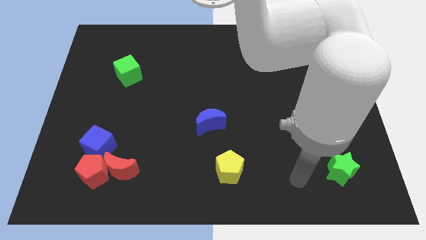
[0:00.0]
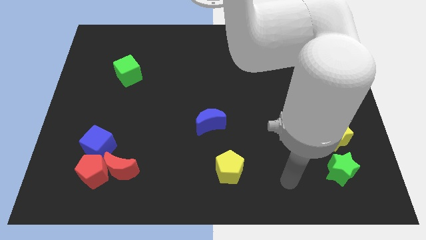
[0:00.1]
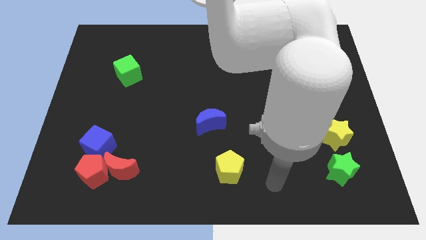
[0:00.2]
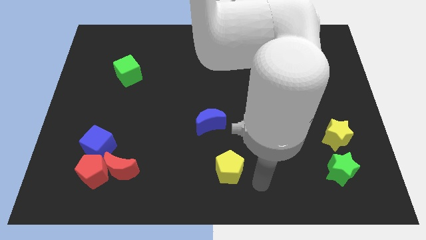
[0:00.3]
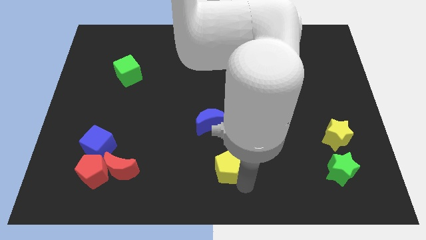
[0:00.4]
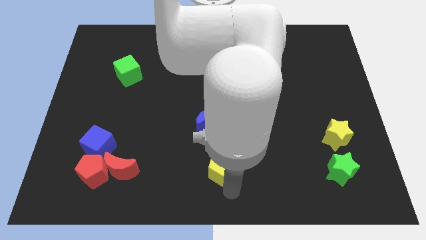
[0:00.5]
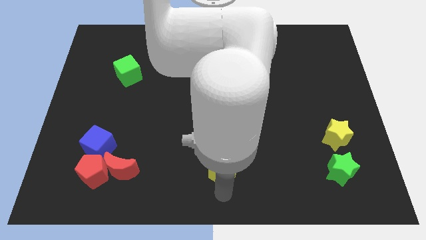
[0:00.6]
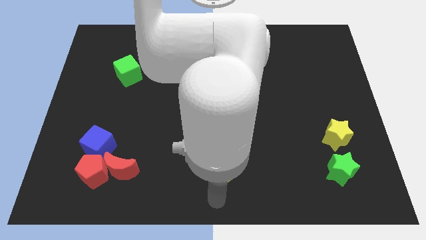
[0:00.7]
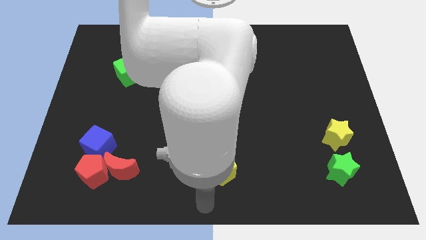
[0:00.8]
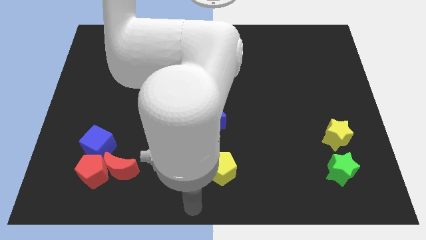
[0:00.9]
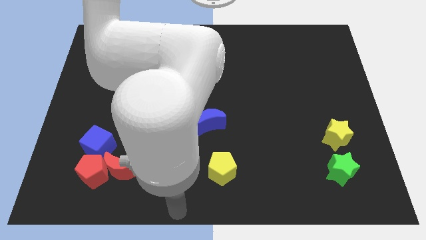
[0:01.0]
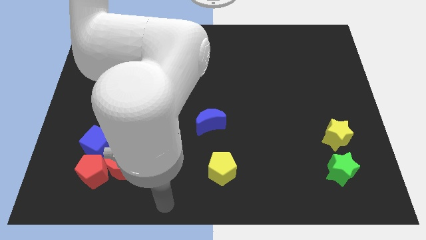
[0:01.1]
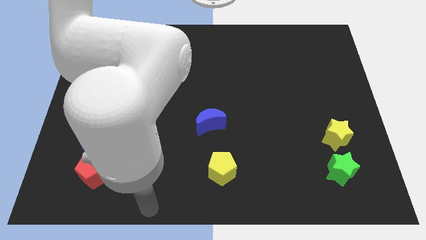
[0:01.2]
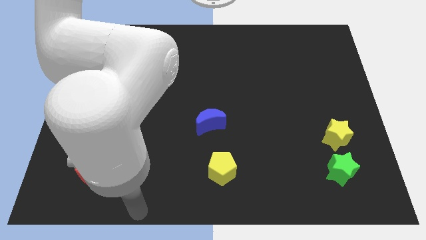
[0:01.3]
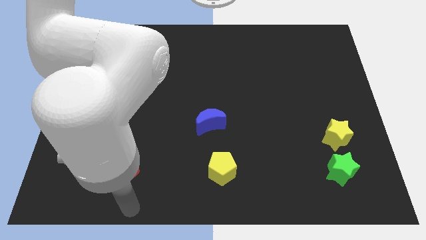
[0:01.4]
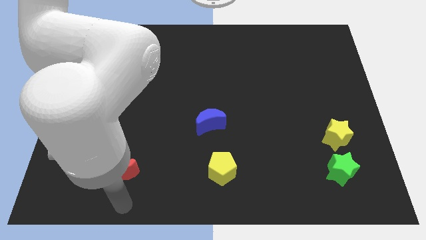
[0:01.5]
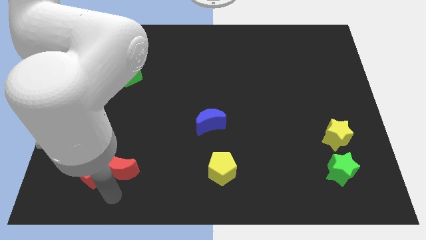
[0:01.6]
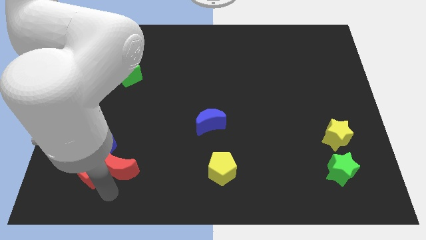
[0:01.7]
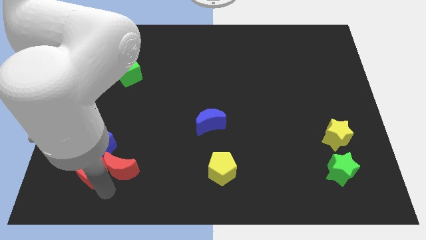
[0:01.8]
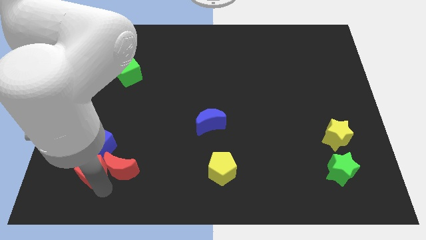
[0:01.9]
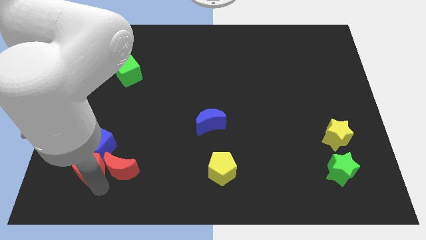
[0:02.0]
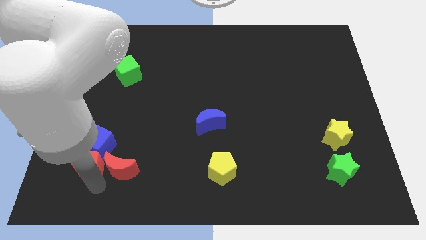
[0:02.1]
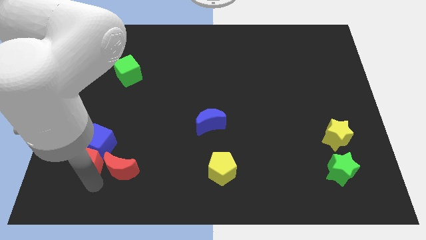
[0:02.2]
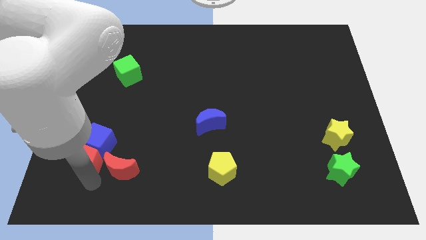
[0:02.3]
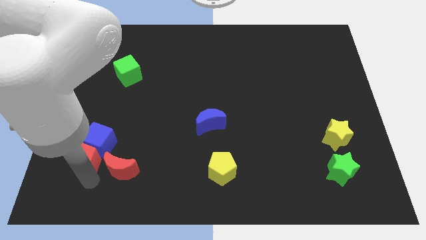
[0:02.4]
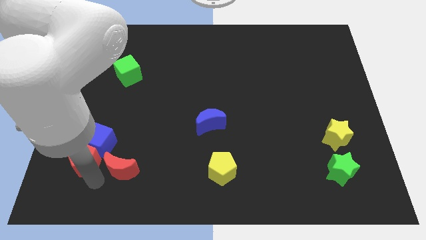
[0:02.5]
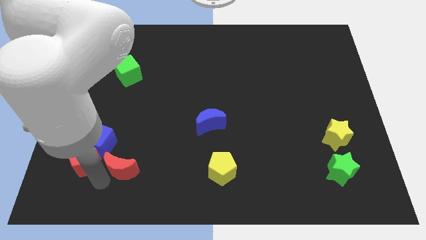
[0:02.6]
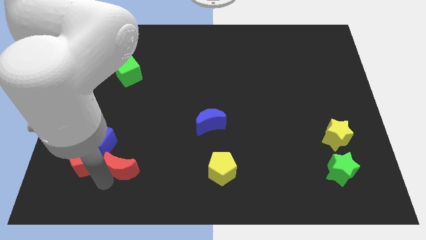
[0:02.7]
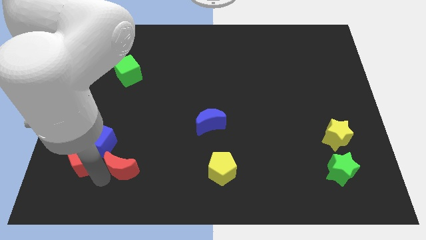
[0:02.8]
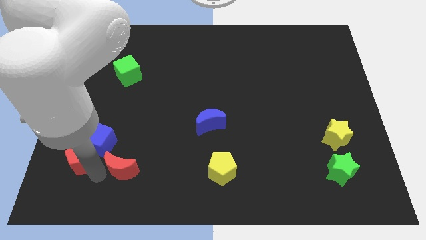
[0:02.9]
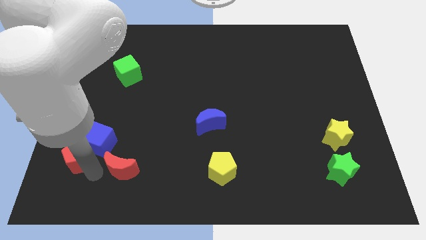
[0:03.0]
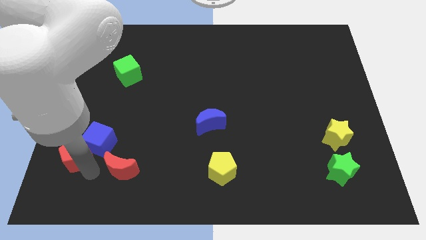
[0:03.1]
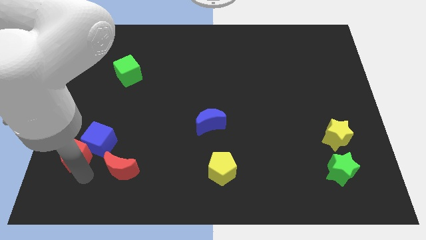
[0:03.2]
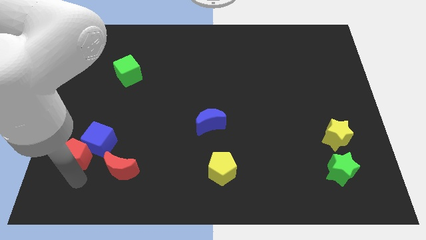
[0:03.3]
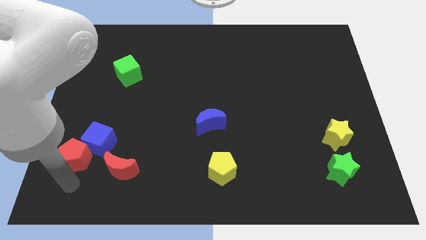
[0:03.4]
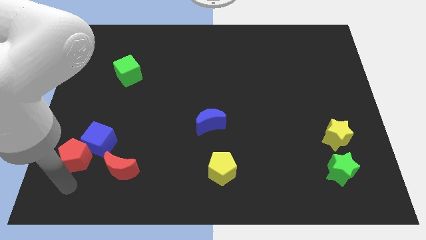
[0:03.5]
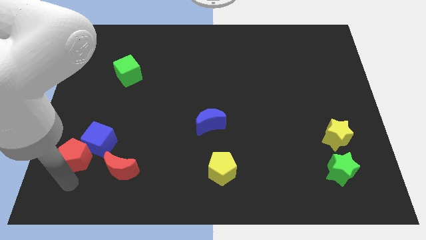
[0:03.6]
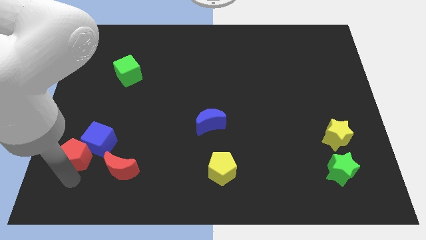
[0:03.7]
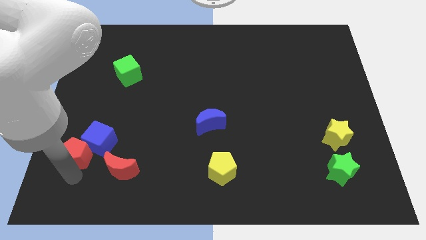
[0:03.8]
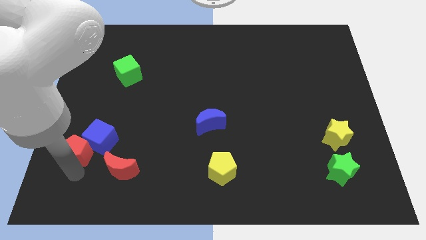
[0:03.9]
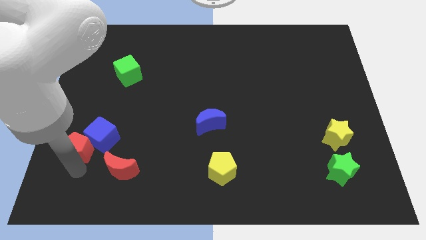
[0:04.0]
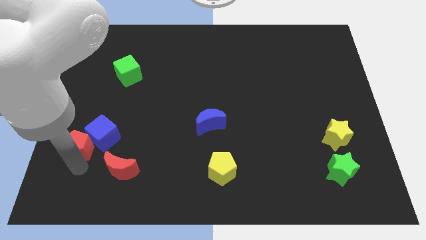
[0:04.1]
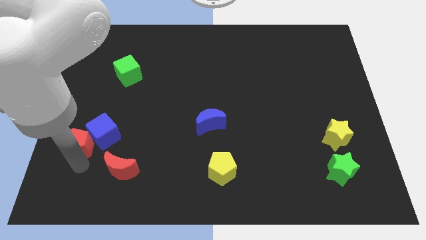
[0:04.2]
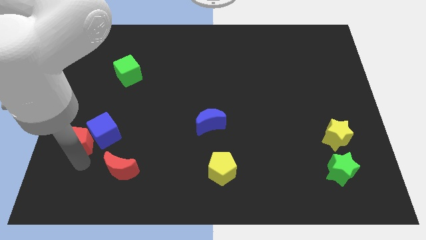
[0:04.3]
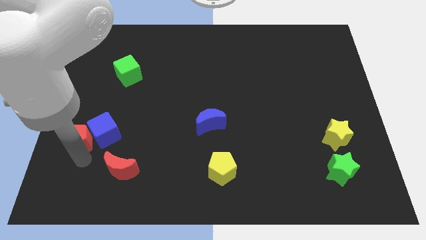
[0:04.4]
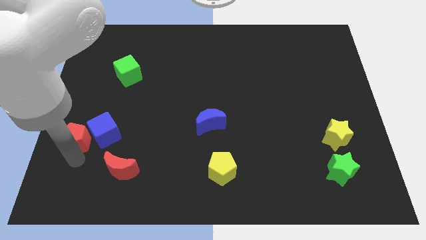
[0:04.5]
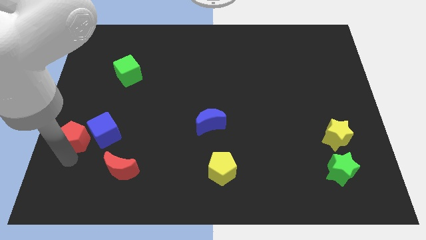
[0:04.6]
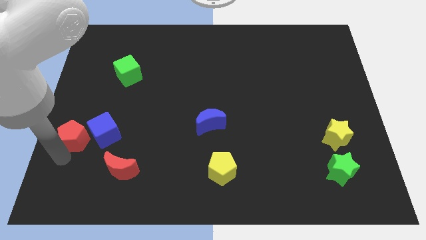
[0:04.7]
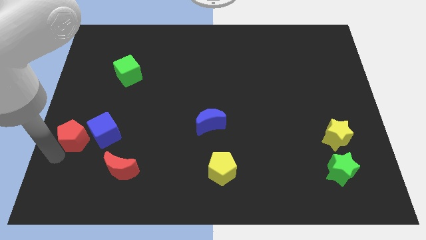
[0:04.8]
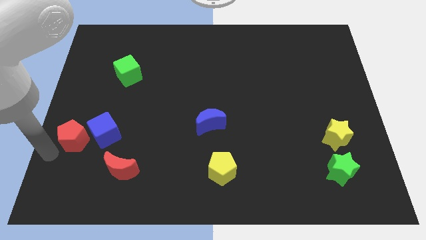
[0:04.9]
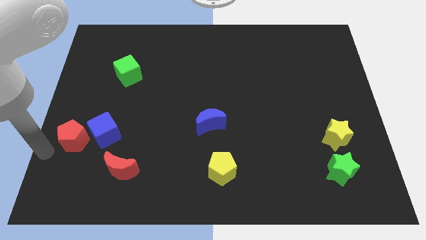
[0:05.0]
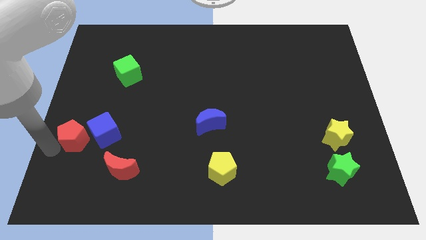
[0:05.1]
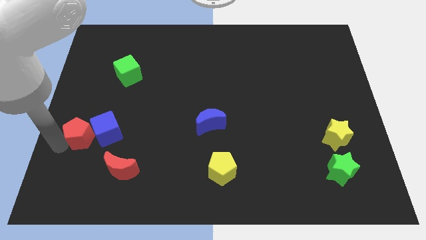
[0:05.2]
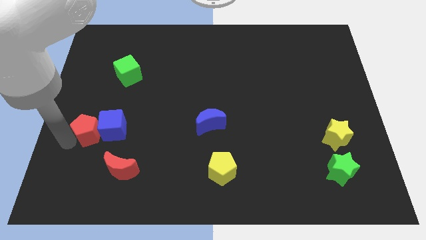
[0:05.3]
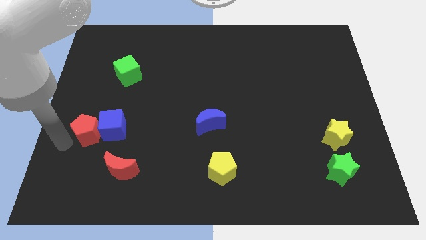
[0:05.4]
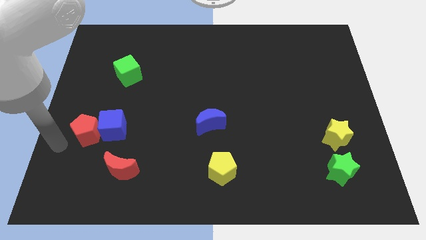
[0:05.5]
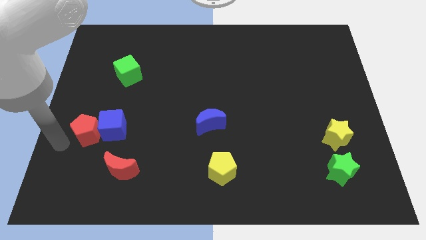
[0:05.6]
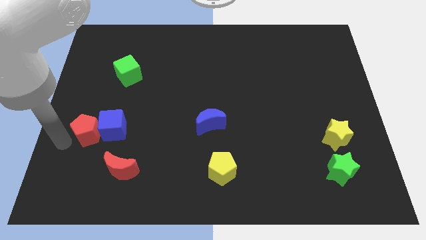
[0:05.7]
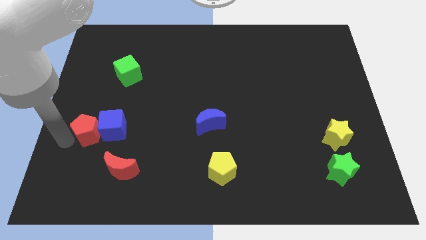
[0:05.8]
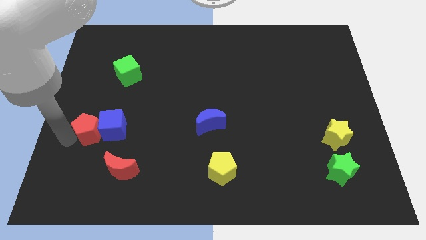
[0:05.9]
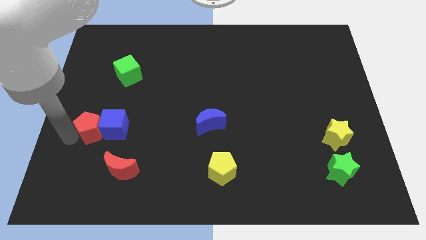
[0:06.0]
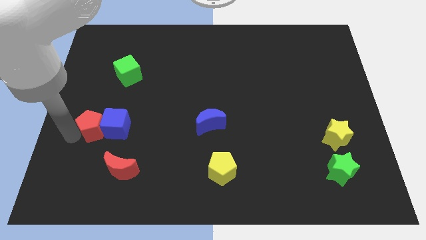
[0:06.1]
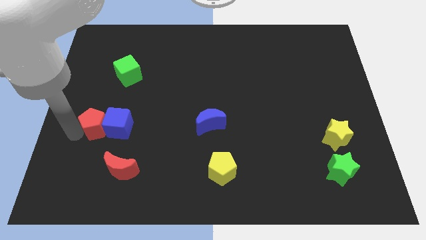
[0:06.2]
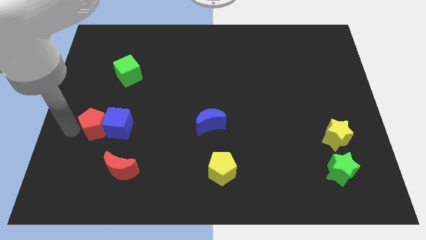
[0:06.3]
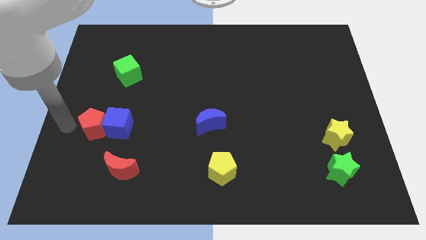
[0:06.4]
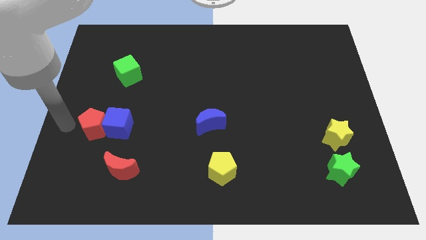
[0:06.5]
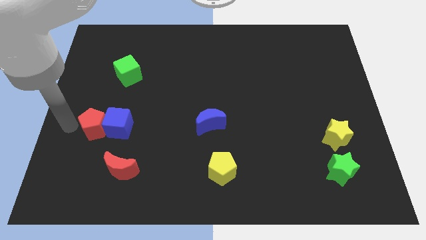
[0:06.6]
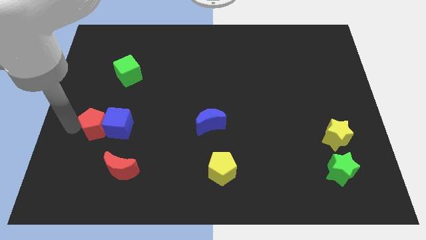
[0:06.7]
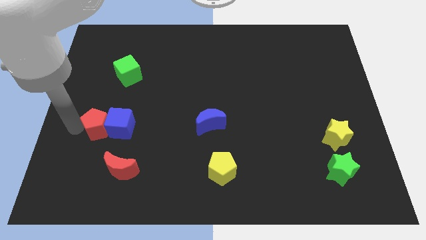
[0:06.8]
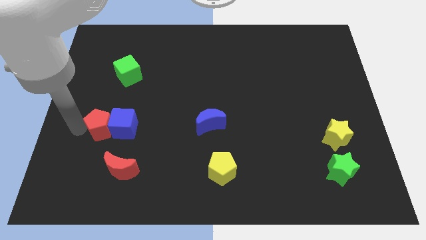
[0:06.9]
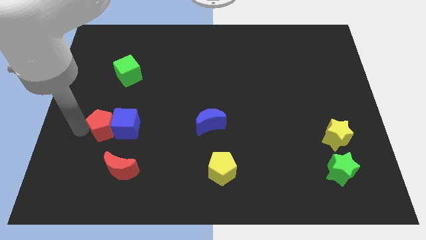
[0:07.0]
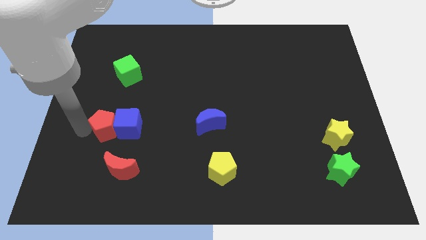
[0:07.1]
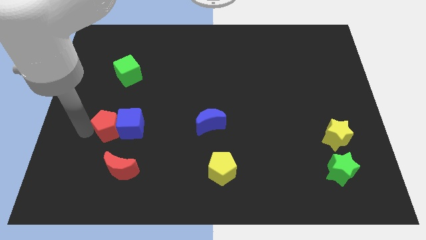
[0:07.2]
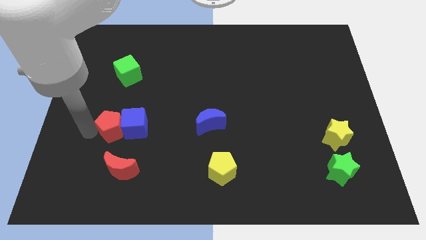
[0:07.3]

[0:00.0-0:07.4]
push the red pentagon upwards and to the right diagonally a bit

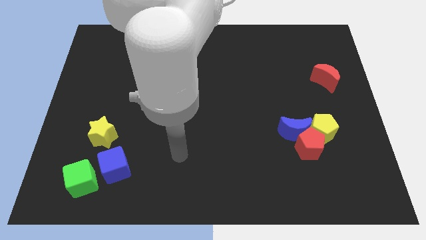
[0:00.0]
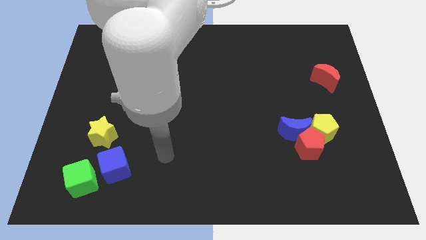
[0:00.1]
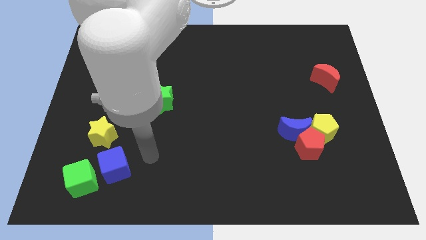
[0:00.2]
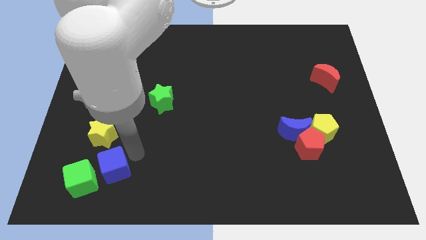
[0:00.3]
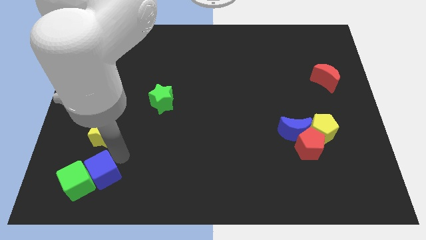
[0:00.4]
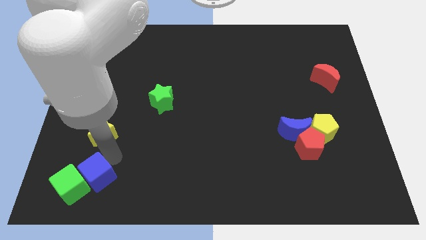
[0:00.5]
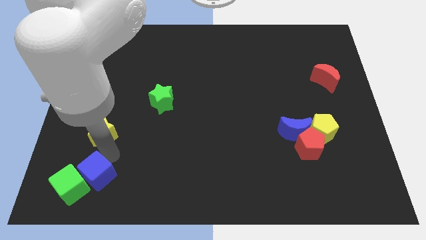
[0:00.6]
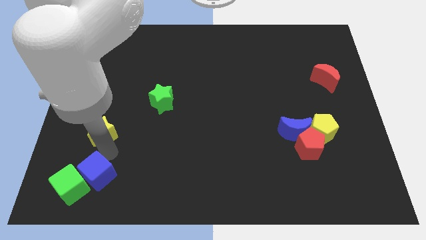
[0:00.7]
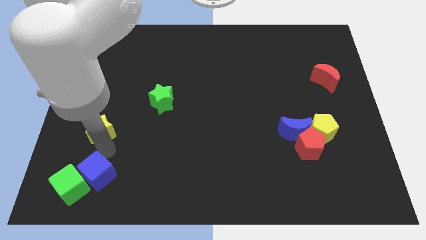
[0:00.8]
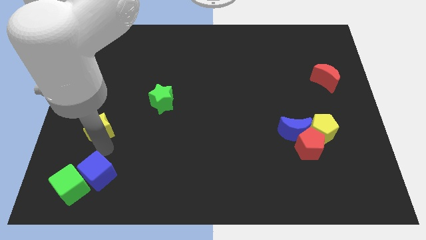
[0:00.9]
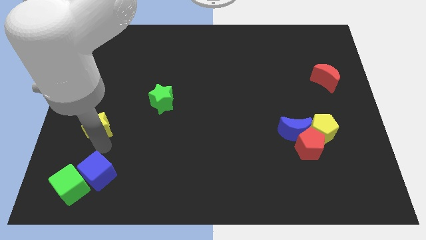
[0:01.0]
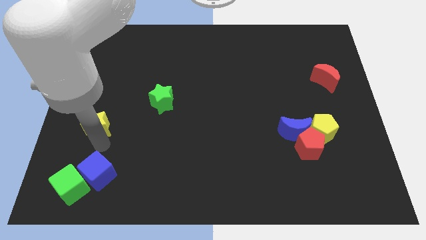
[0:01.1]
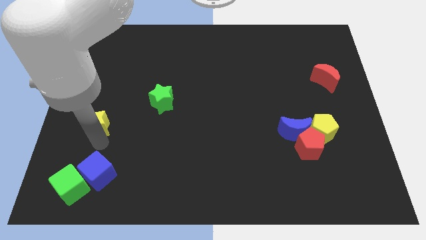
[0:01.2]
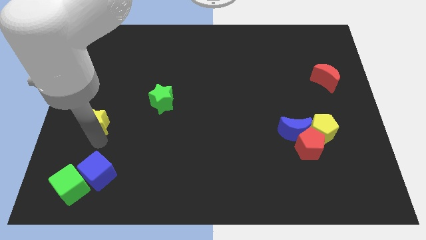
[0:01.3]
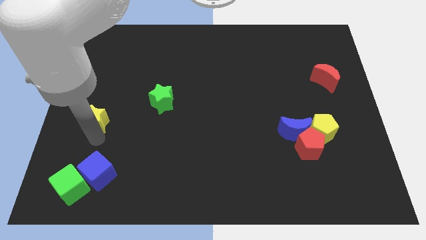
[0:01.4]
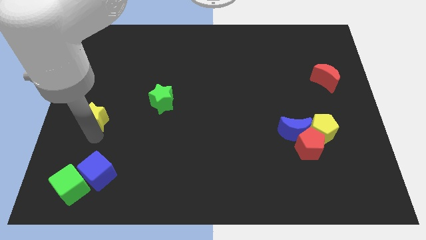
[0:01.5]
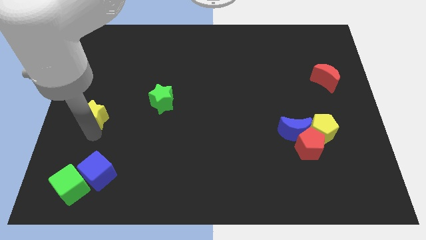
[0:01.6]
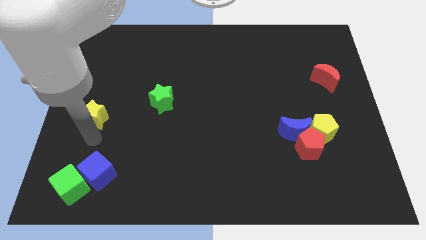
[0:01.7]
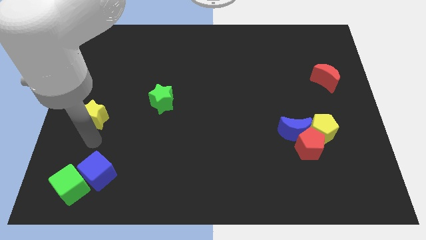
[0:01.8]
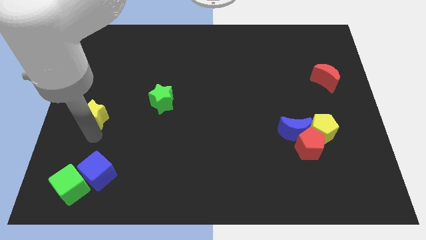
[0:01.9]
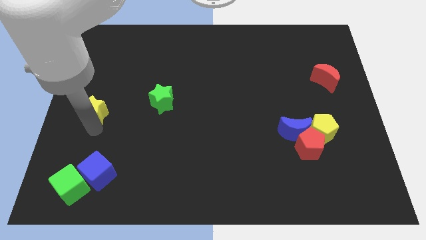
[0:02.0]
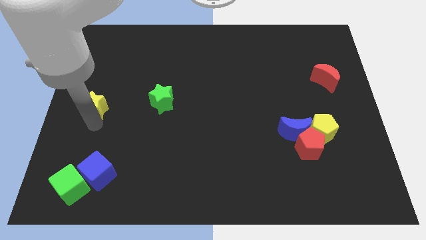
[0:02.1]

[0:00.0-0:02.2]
move the yellow star up a bit
